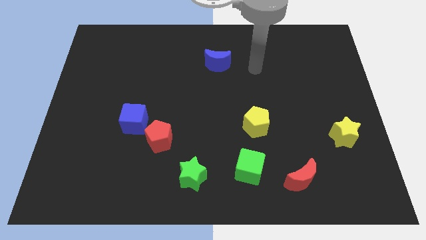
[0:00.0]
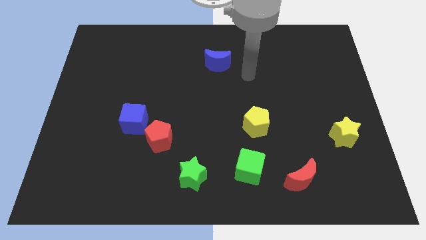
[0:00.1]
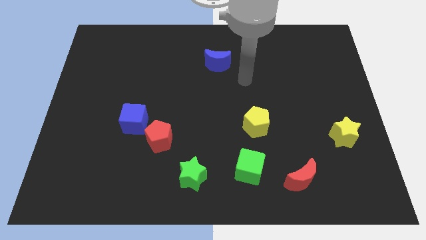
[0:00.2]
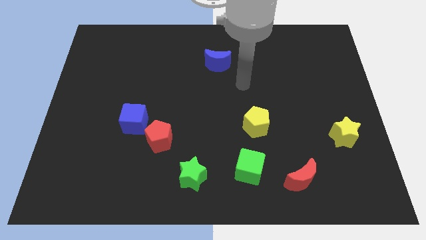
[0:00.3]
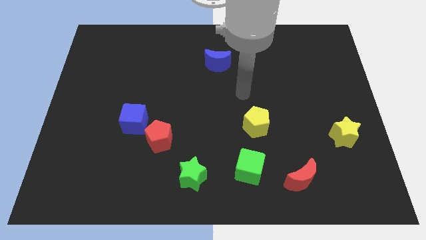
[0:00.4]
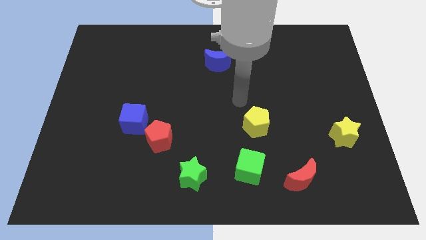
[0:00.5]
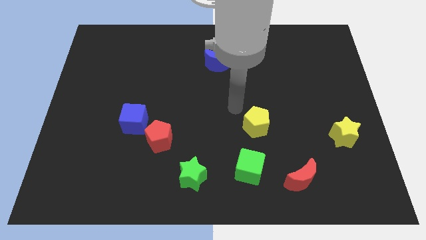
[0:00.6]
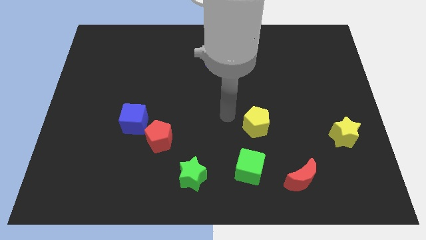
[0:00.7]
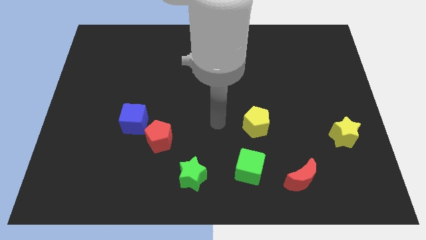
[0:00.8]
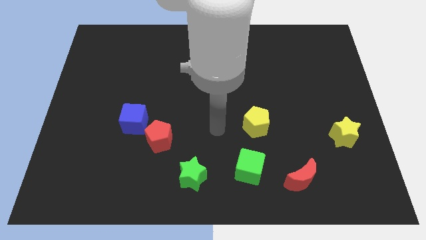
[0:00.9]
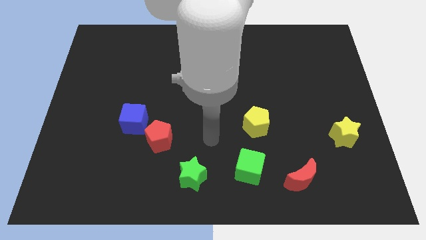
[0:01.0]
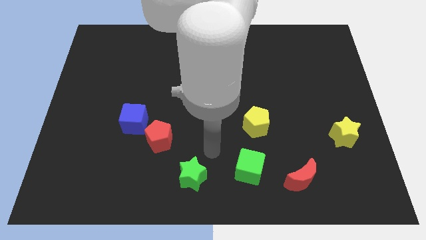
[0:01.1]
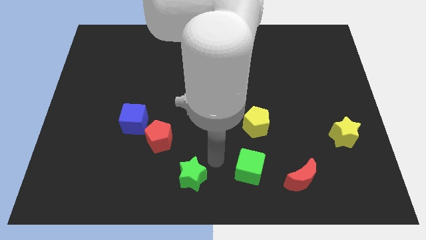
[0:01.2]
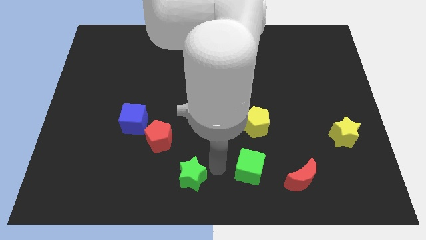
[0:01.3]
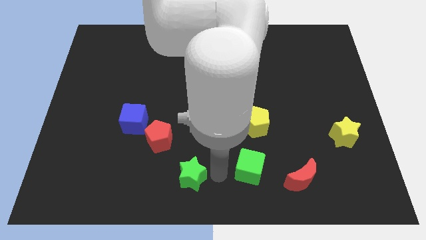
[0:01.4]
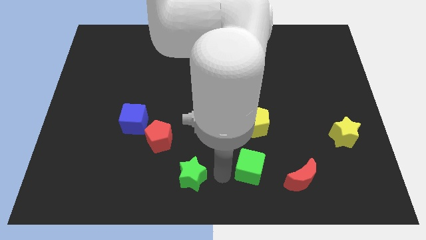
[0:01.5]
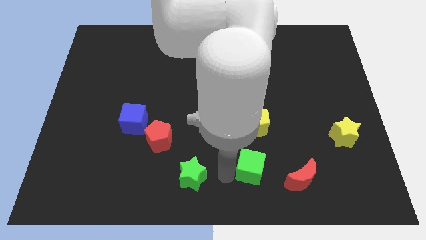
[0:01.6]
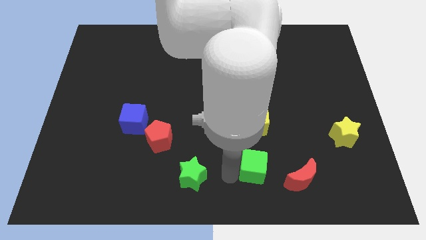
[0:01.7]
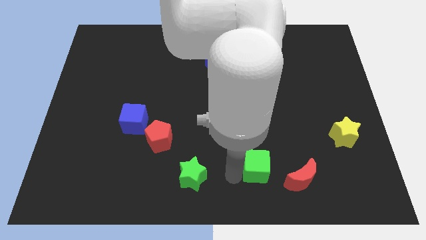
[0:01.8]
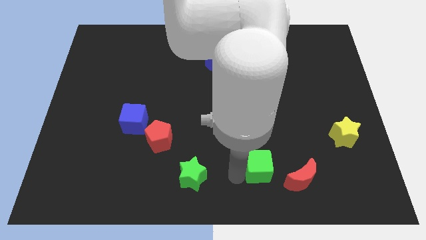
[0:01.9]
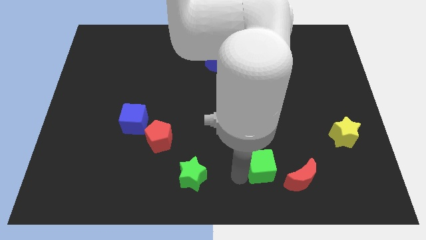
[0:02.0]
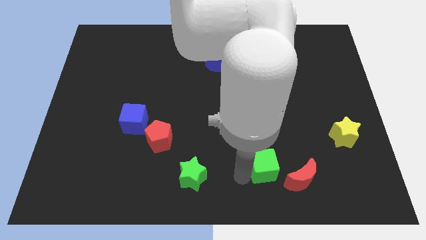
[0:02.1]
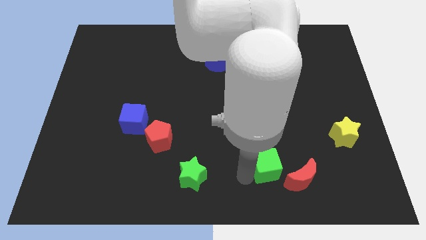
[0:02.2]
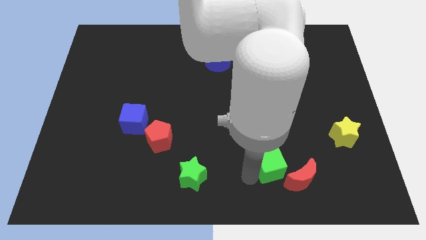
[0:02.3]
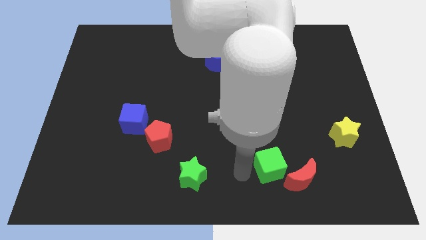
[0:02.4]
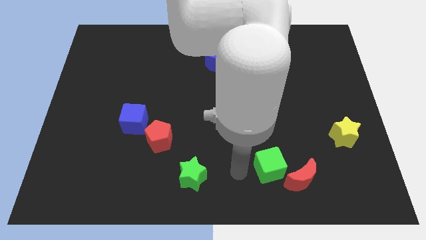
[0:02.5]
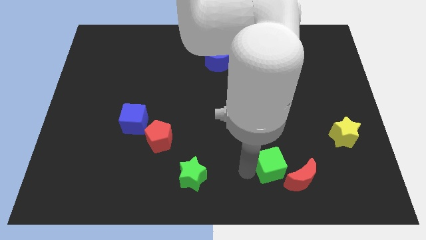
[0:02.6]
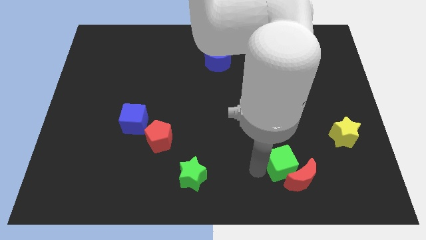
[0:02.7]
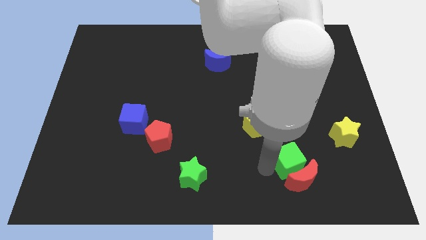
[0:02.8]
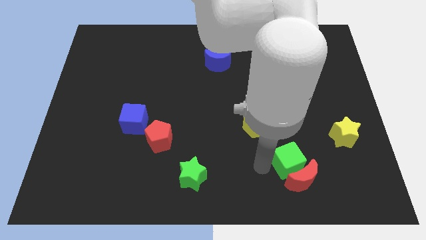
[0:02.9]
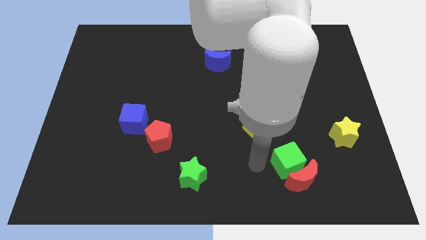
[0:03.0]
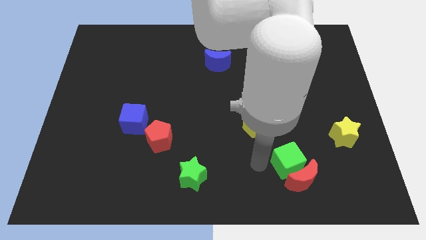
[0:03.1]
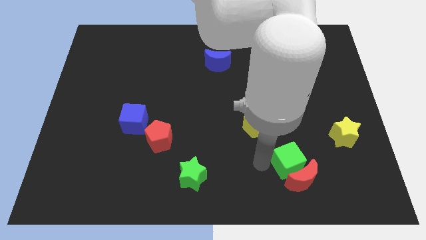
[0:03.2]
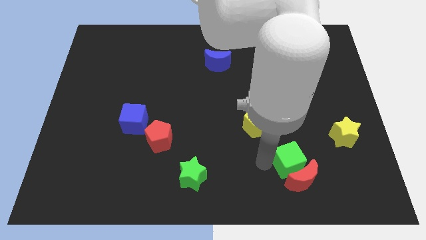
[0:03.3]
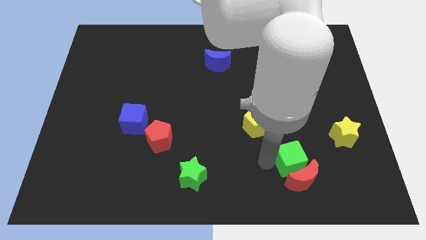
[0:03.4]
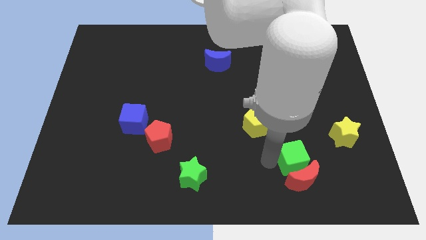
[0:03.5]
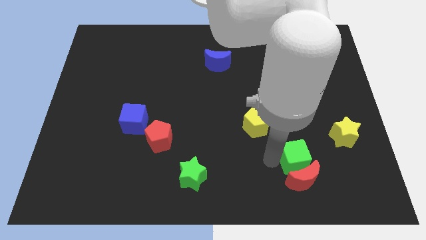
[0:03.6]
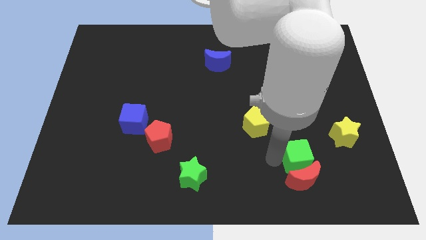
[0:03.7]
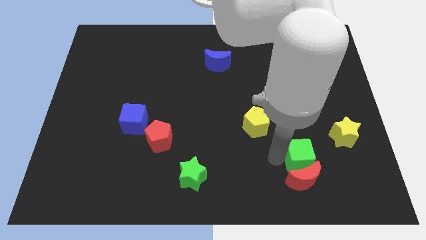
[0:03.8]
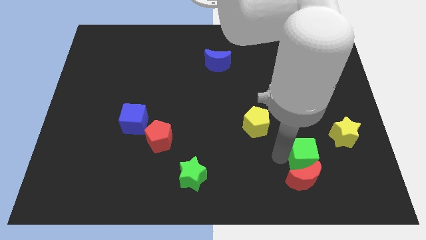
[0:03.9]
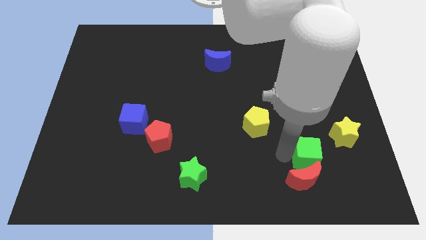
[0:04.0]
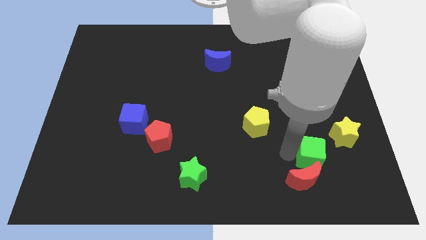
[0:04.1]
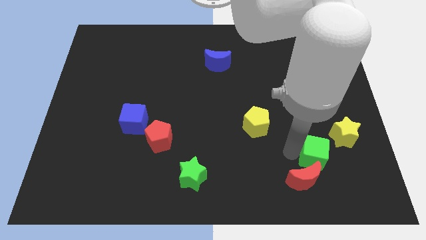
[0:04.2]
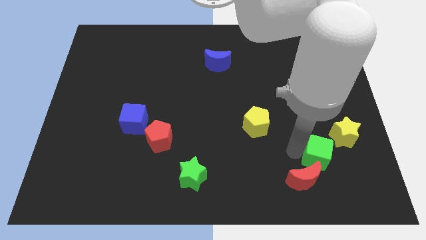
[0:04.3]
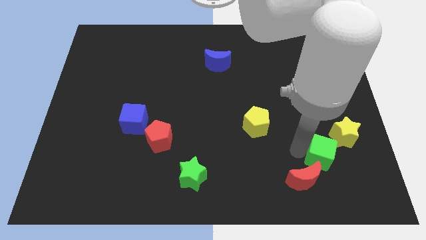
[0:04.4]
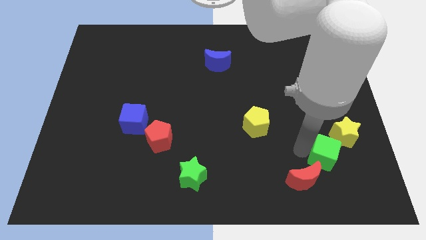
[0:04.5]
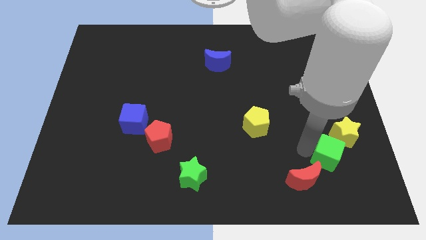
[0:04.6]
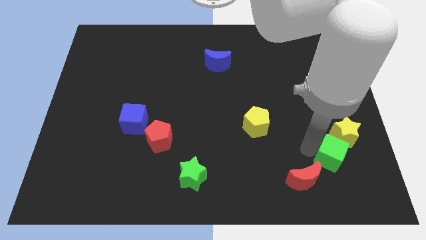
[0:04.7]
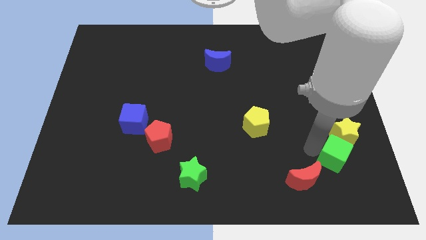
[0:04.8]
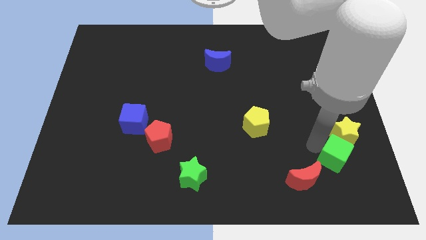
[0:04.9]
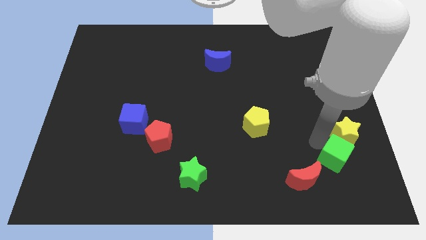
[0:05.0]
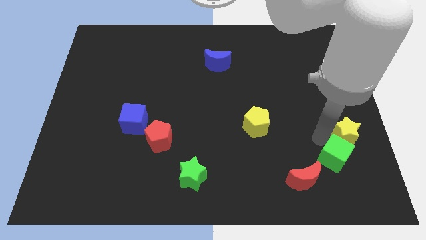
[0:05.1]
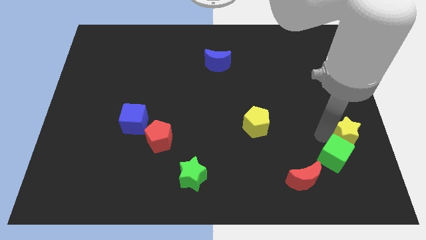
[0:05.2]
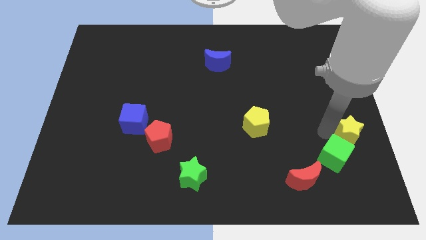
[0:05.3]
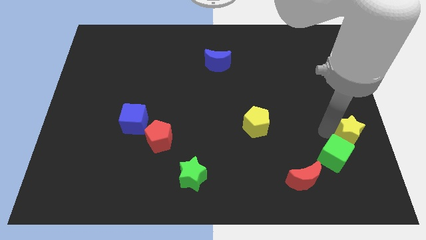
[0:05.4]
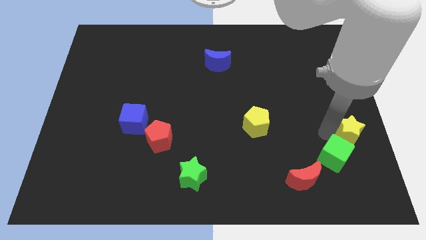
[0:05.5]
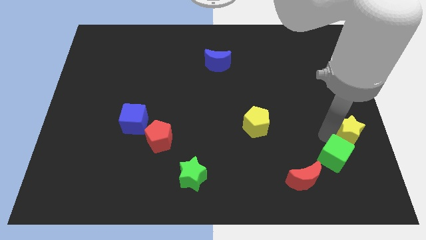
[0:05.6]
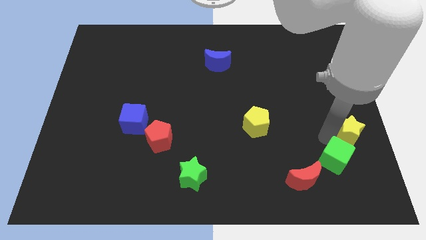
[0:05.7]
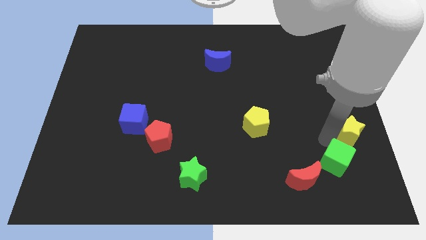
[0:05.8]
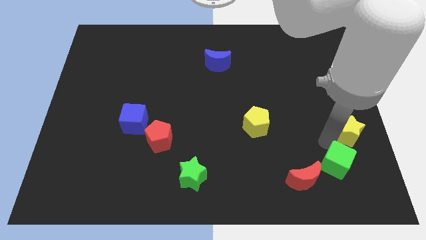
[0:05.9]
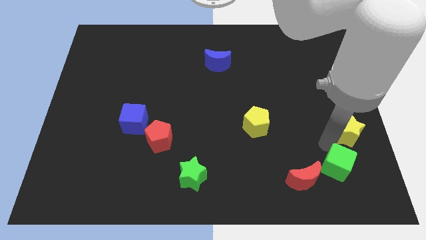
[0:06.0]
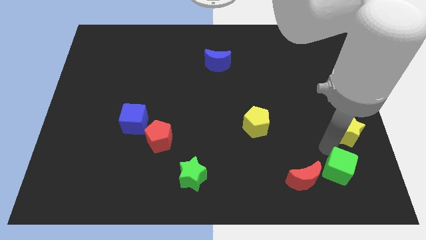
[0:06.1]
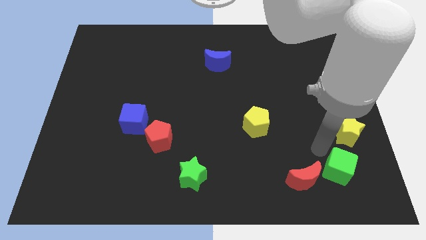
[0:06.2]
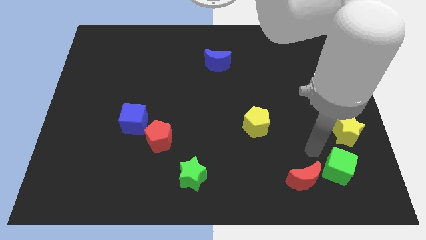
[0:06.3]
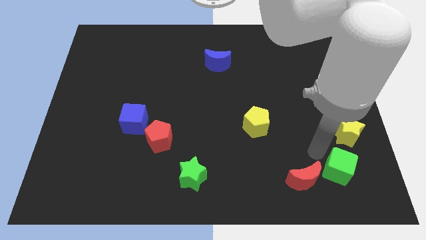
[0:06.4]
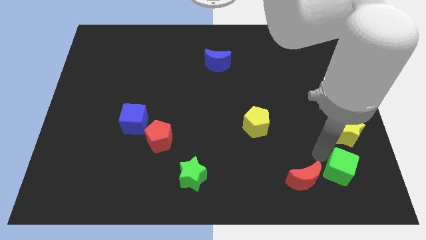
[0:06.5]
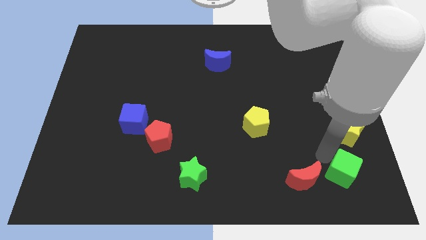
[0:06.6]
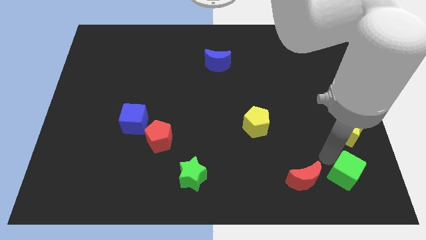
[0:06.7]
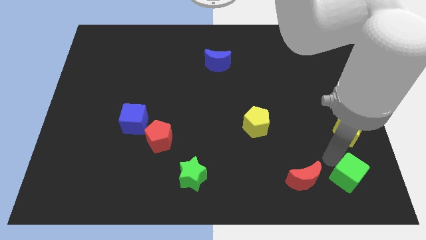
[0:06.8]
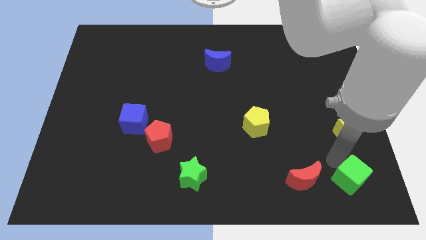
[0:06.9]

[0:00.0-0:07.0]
put the green cube to the bottom right of the board
